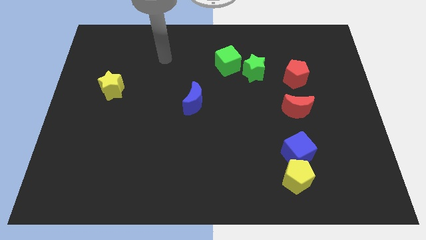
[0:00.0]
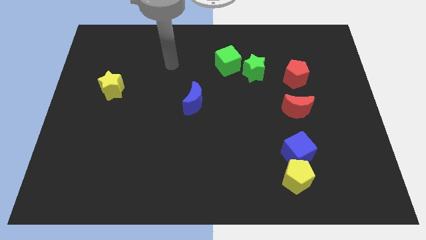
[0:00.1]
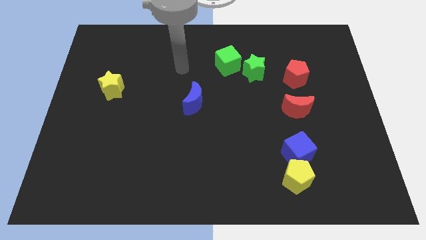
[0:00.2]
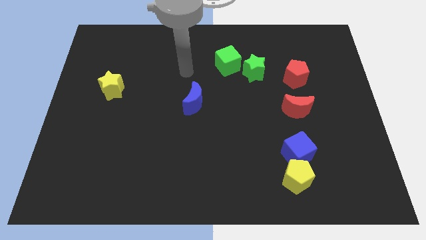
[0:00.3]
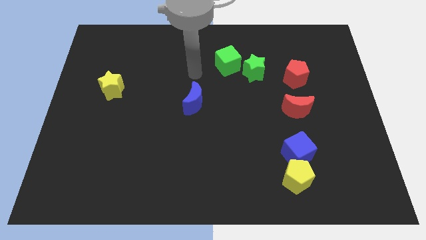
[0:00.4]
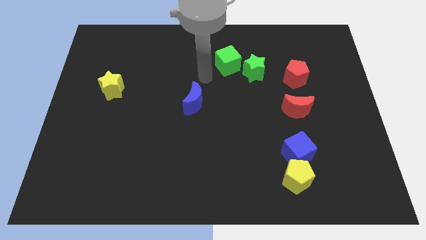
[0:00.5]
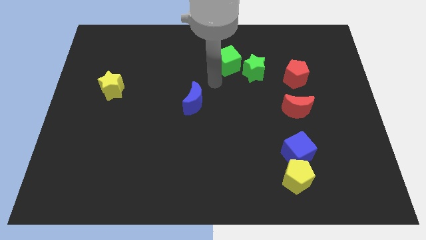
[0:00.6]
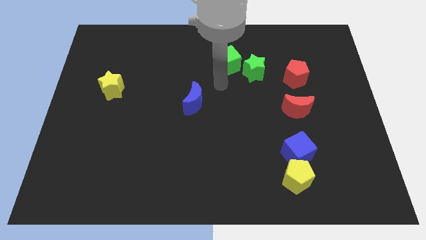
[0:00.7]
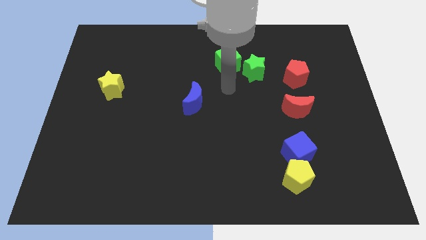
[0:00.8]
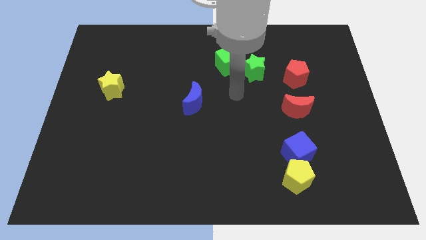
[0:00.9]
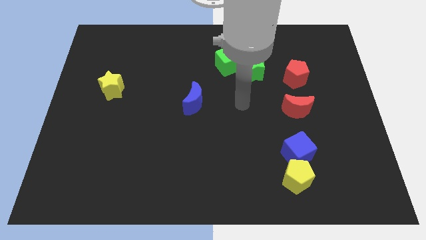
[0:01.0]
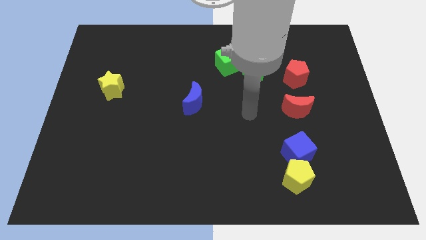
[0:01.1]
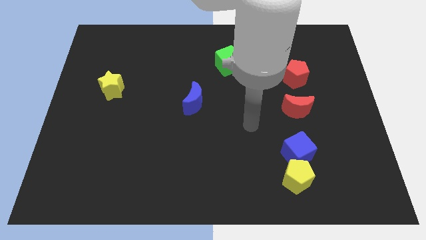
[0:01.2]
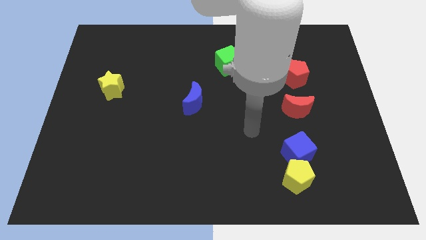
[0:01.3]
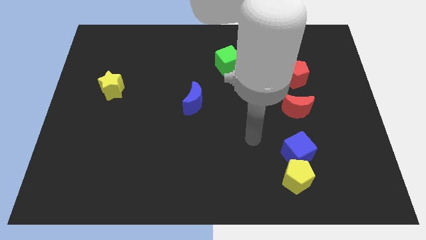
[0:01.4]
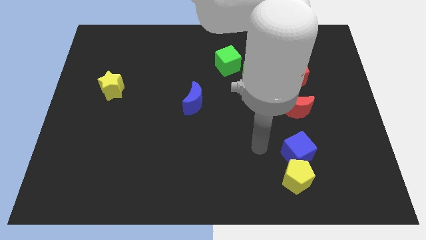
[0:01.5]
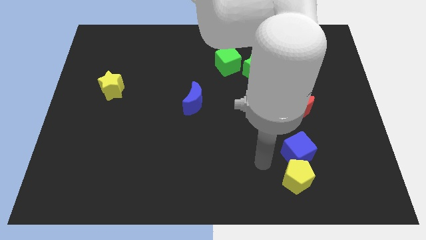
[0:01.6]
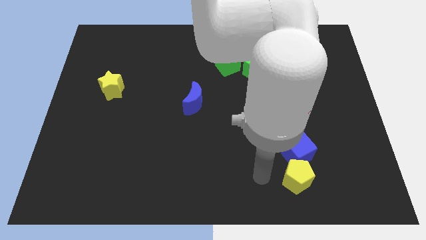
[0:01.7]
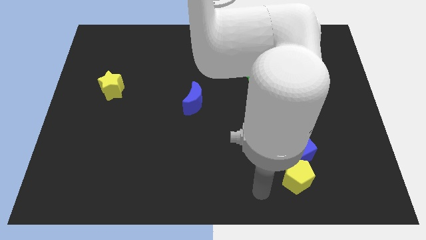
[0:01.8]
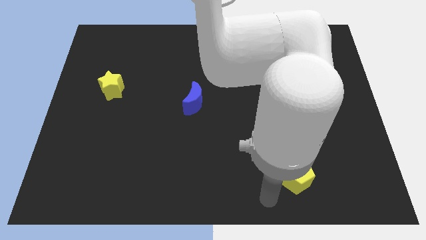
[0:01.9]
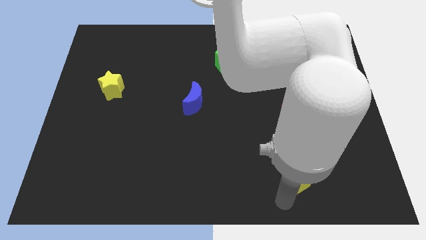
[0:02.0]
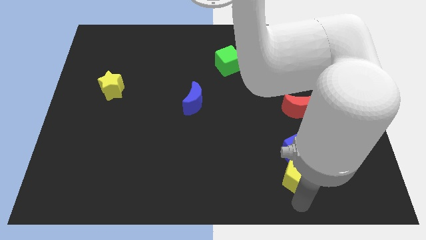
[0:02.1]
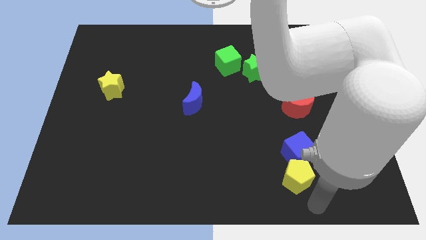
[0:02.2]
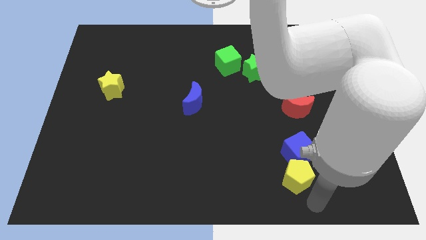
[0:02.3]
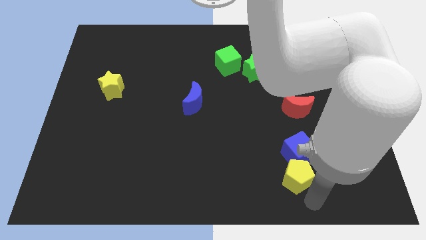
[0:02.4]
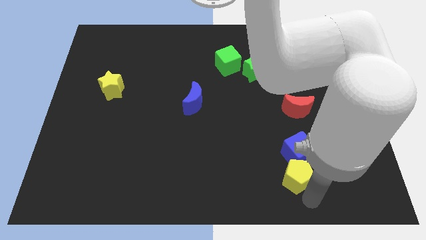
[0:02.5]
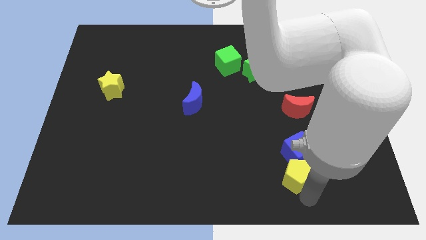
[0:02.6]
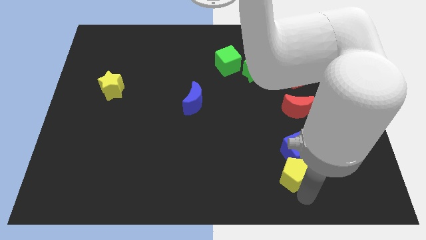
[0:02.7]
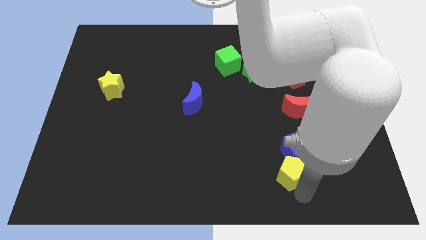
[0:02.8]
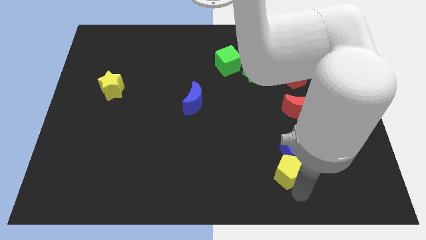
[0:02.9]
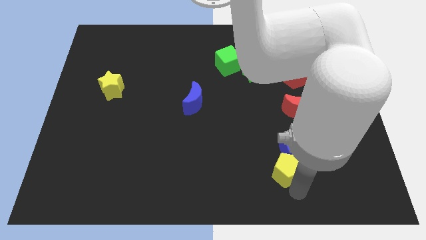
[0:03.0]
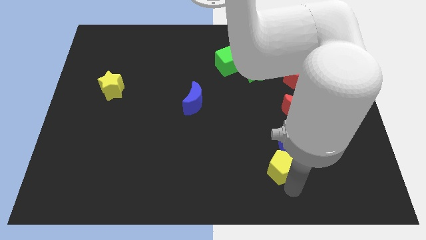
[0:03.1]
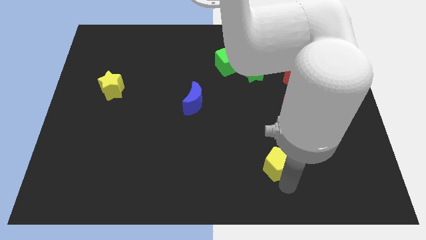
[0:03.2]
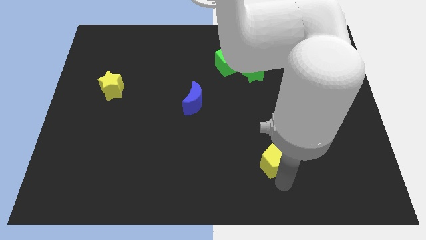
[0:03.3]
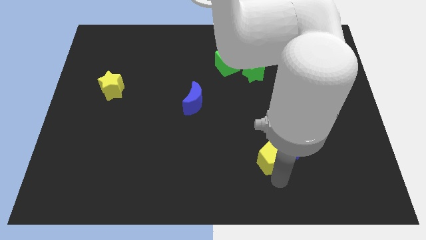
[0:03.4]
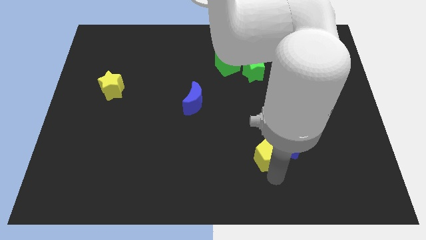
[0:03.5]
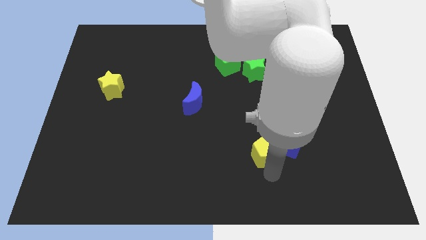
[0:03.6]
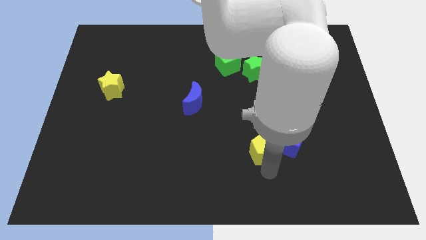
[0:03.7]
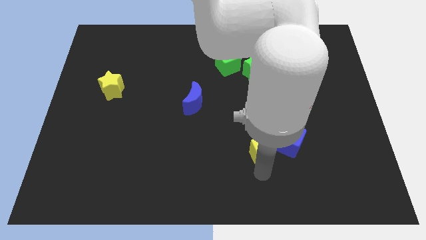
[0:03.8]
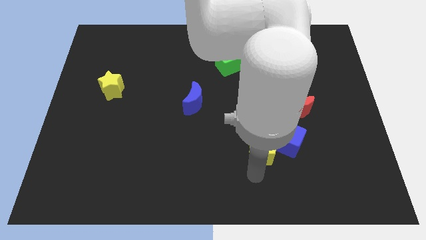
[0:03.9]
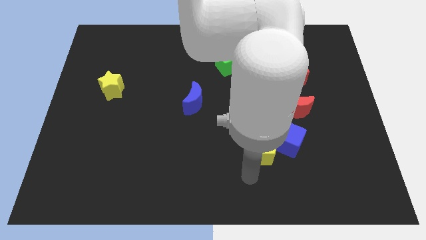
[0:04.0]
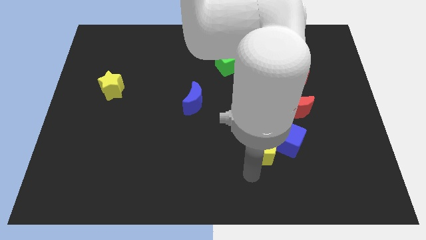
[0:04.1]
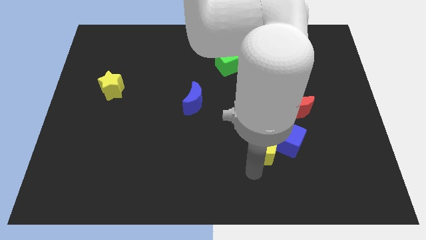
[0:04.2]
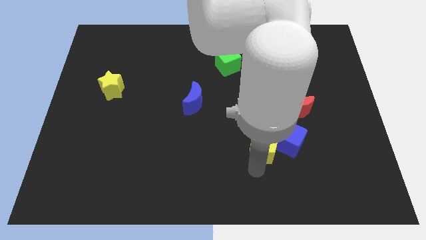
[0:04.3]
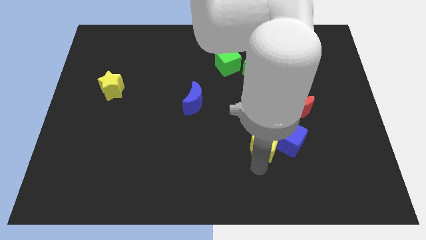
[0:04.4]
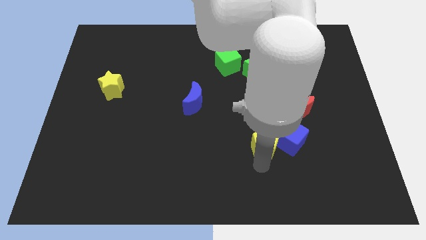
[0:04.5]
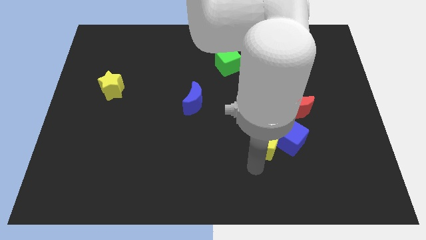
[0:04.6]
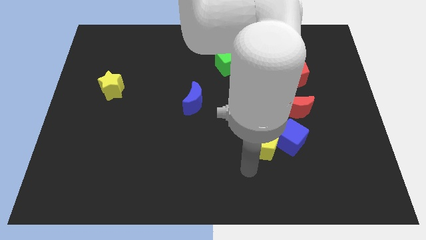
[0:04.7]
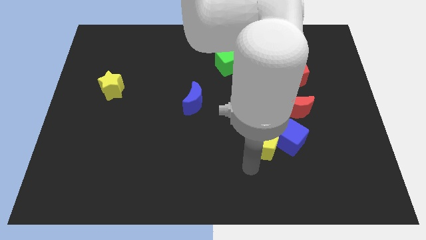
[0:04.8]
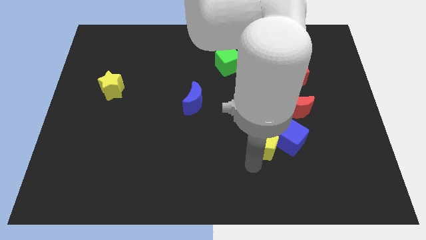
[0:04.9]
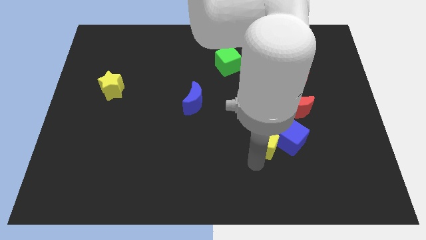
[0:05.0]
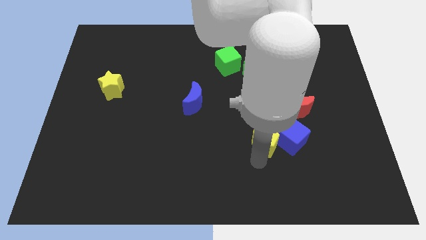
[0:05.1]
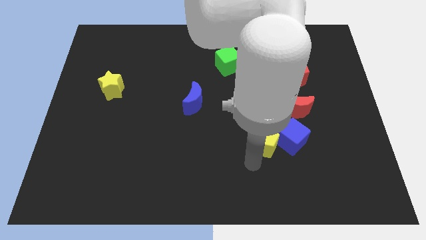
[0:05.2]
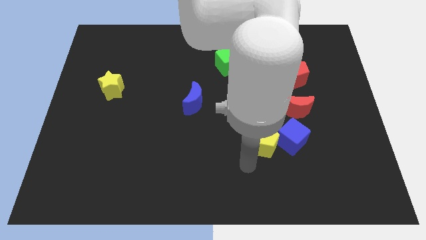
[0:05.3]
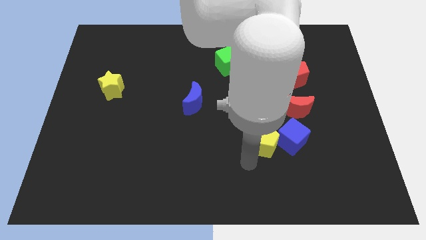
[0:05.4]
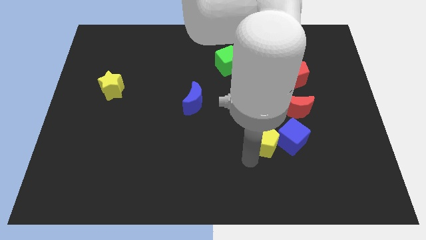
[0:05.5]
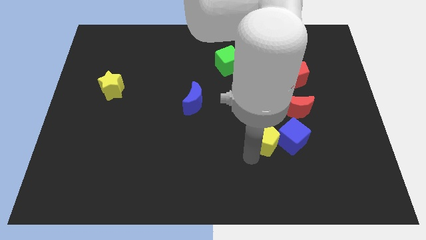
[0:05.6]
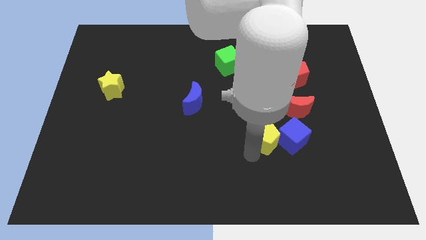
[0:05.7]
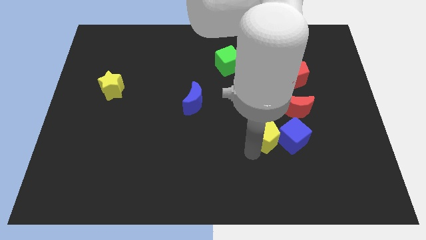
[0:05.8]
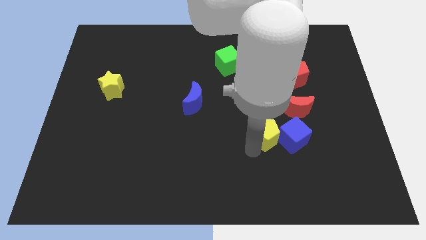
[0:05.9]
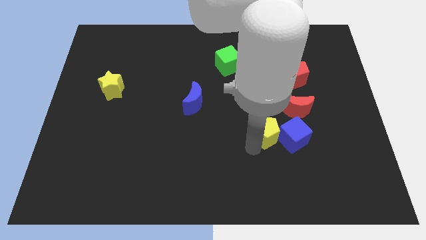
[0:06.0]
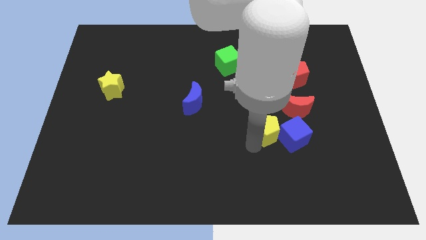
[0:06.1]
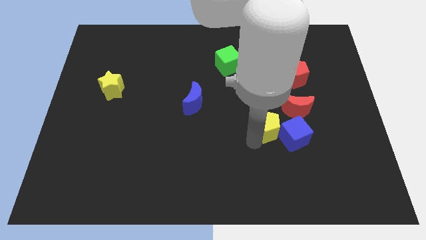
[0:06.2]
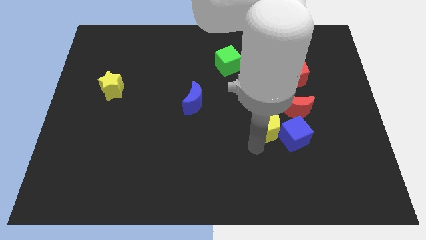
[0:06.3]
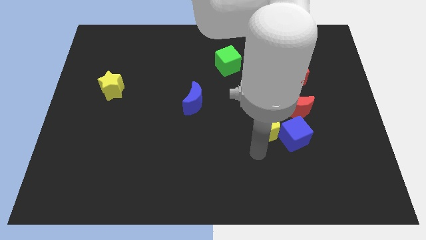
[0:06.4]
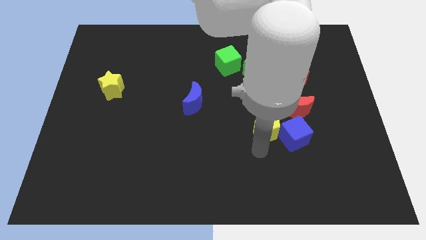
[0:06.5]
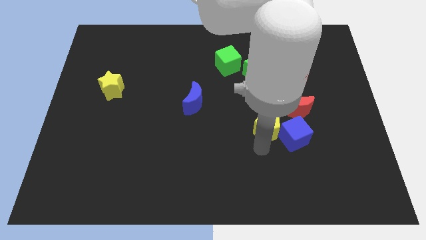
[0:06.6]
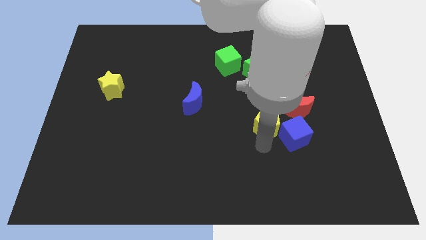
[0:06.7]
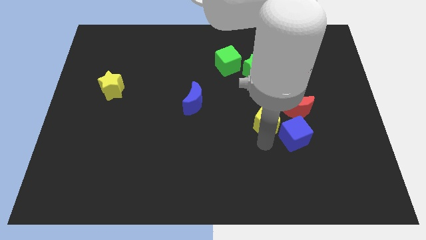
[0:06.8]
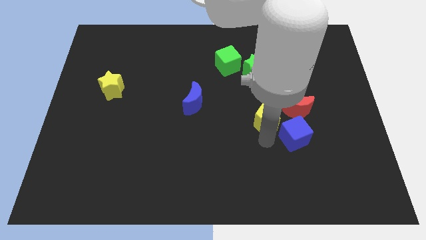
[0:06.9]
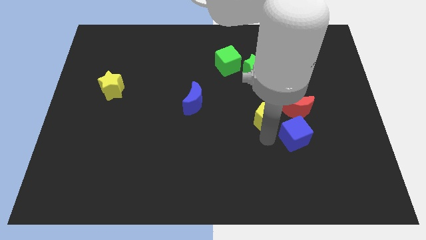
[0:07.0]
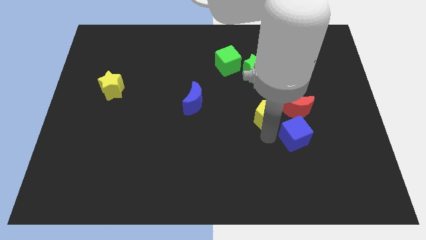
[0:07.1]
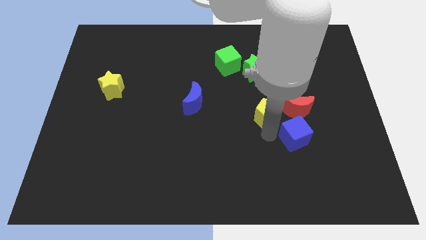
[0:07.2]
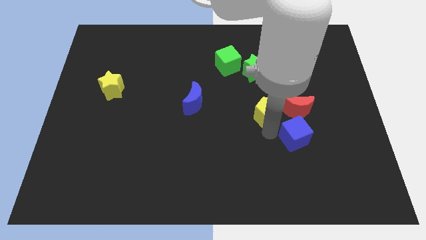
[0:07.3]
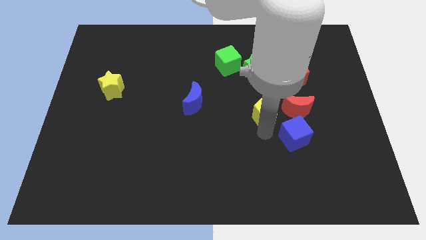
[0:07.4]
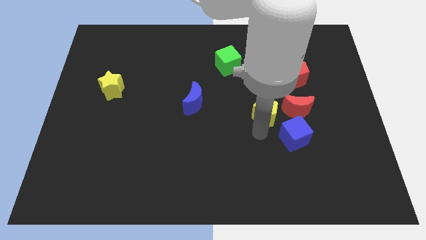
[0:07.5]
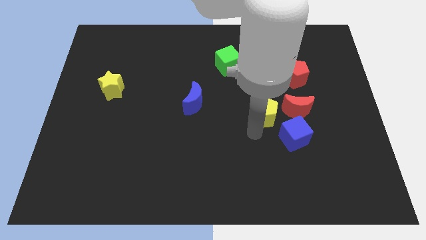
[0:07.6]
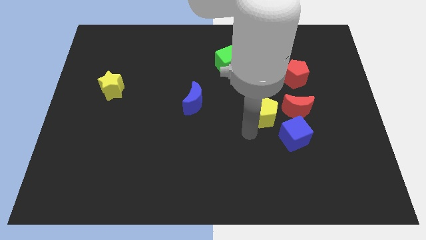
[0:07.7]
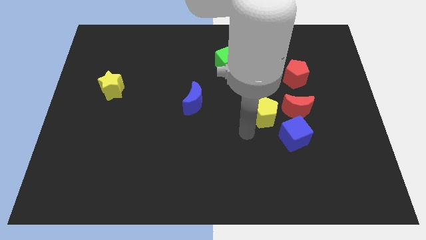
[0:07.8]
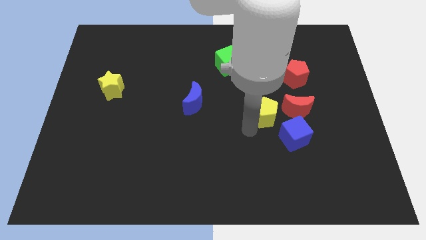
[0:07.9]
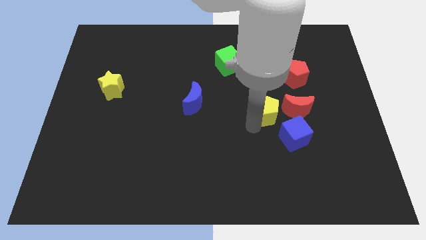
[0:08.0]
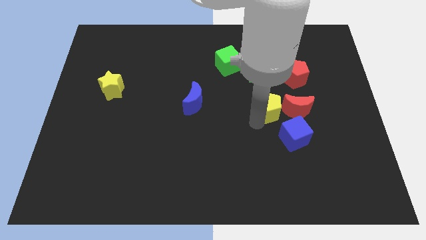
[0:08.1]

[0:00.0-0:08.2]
push the yellow pentagon to the top left of the red moon
